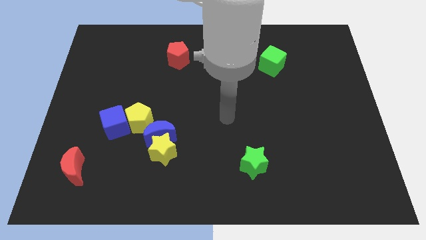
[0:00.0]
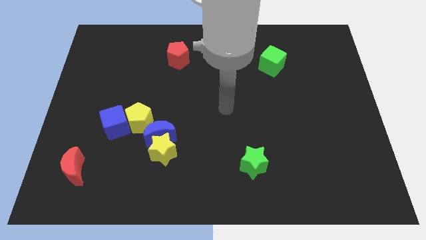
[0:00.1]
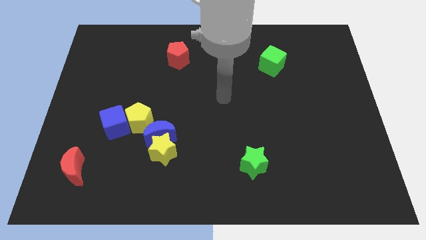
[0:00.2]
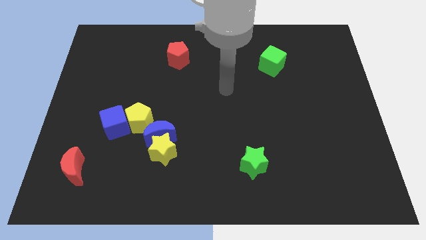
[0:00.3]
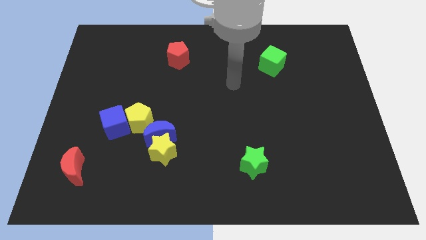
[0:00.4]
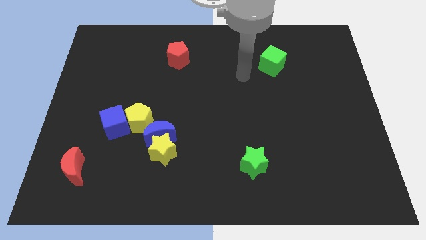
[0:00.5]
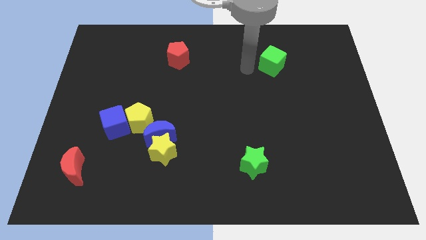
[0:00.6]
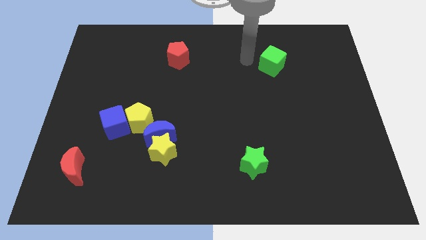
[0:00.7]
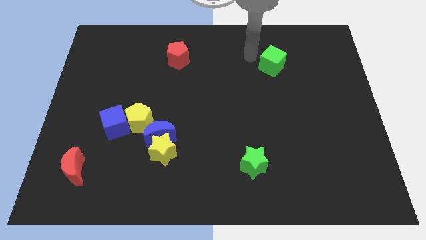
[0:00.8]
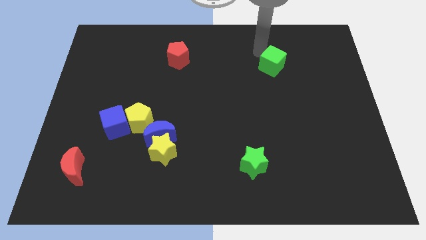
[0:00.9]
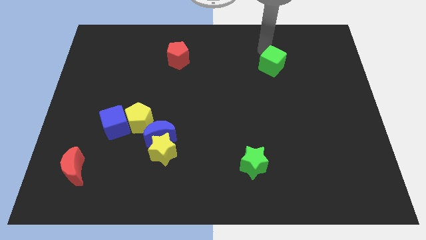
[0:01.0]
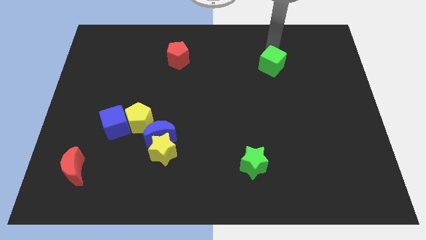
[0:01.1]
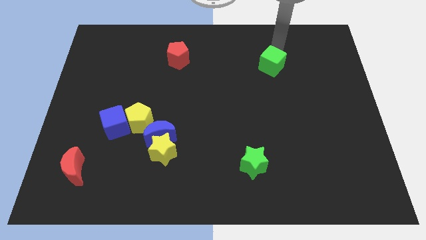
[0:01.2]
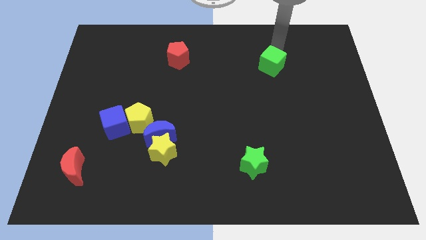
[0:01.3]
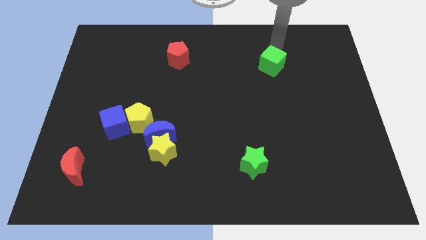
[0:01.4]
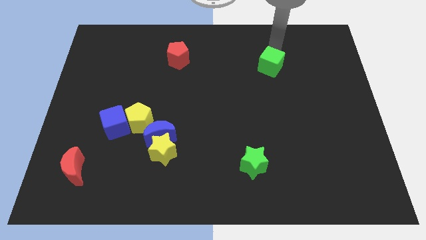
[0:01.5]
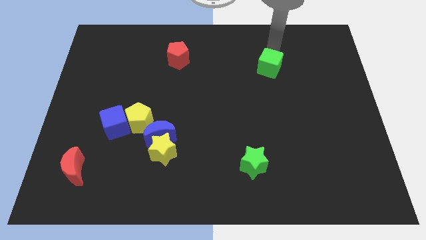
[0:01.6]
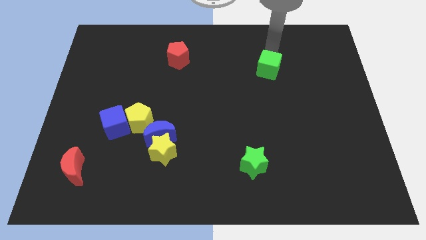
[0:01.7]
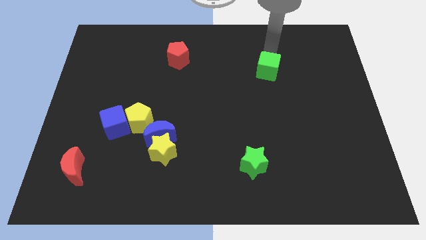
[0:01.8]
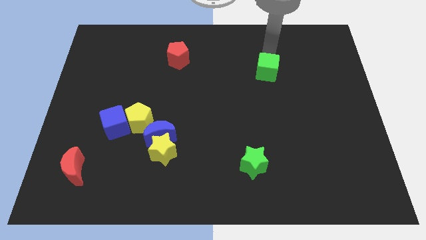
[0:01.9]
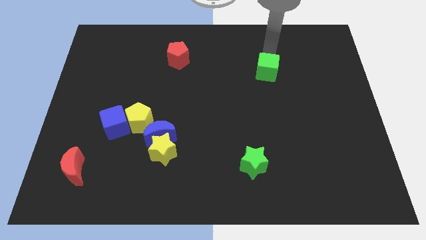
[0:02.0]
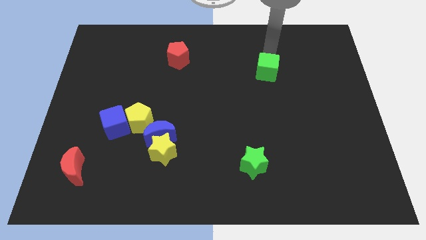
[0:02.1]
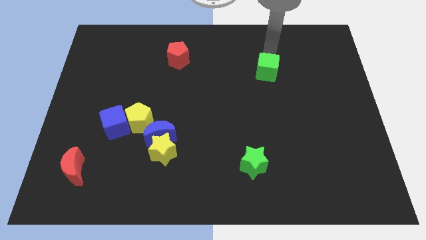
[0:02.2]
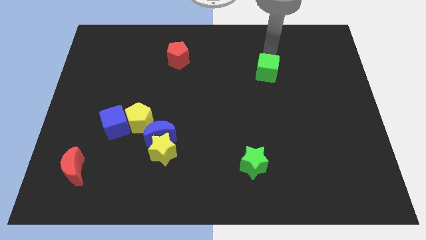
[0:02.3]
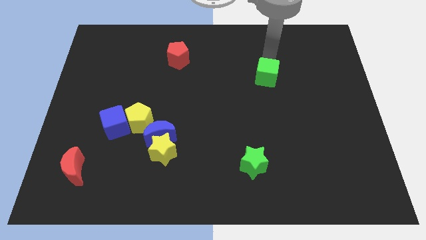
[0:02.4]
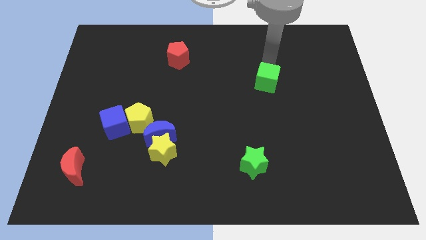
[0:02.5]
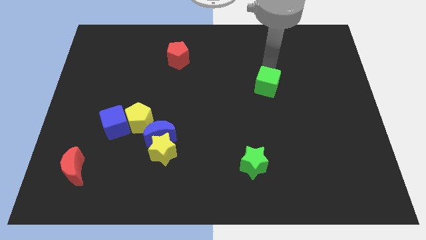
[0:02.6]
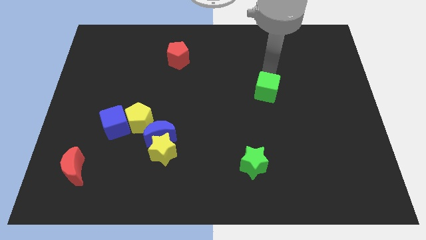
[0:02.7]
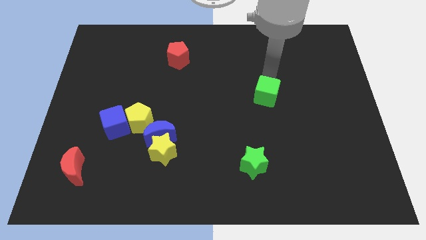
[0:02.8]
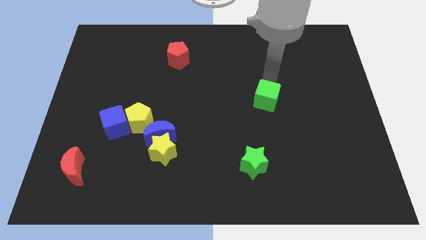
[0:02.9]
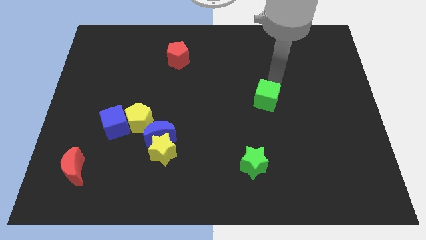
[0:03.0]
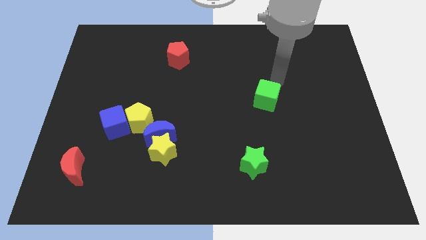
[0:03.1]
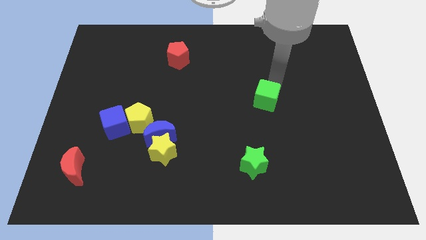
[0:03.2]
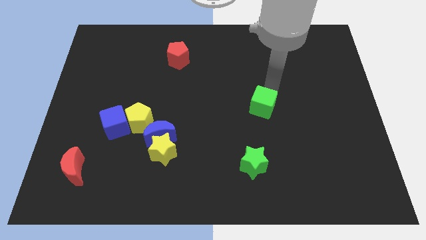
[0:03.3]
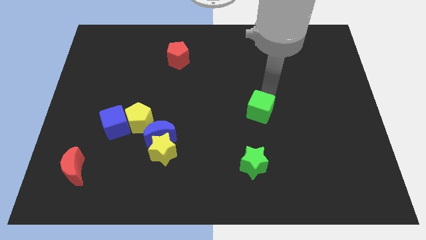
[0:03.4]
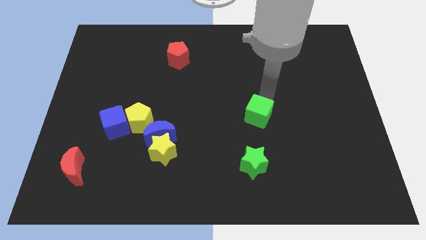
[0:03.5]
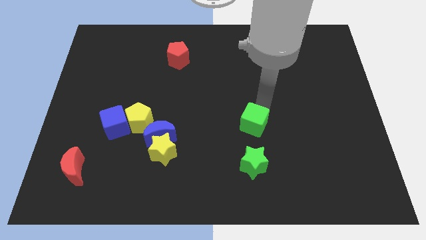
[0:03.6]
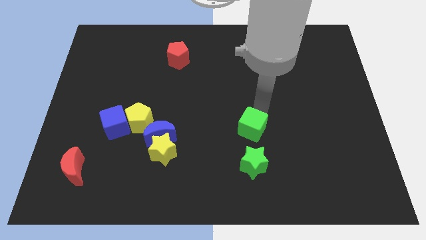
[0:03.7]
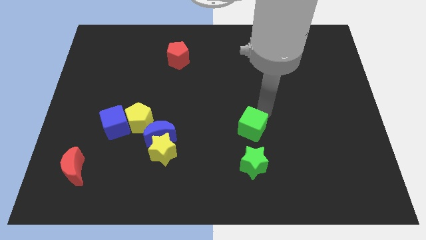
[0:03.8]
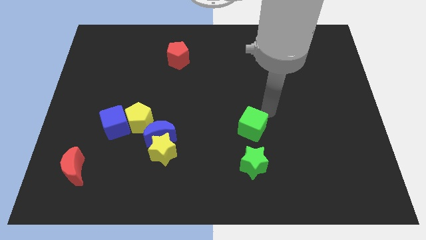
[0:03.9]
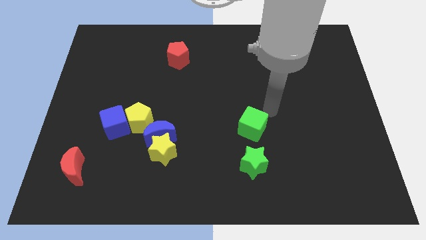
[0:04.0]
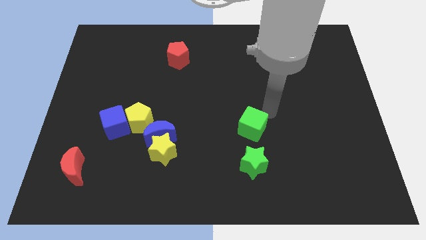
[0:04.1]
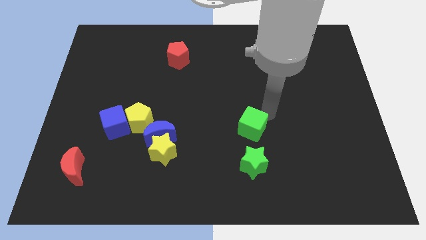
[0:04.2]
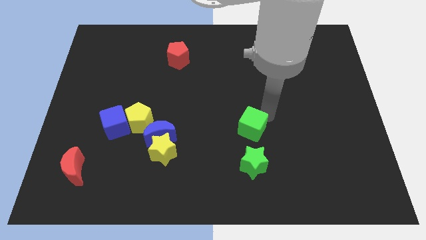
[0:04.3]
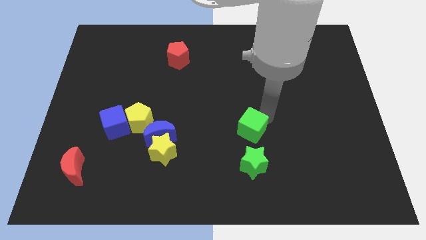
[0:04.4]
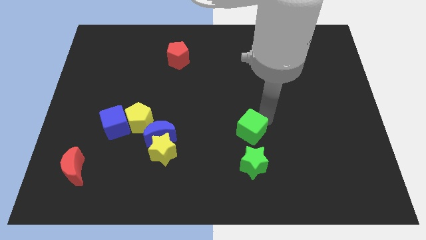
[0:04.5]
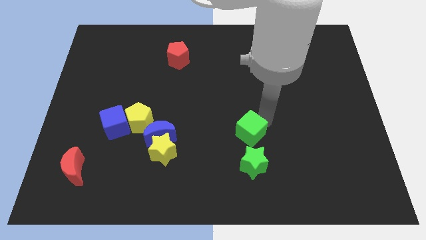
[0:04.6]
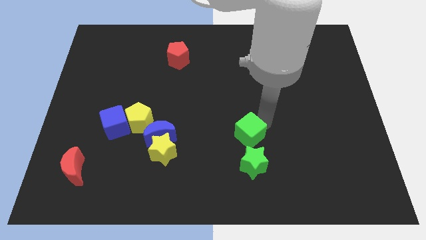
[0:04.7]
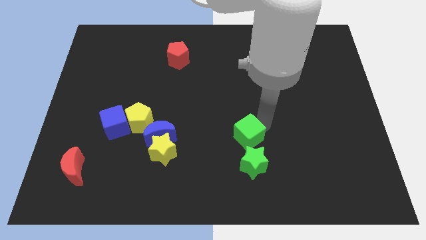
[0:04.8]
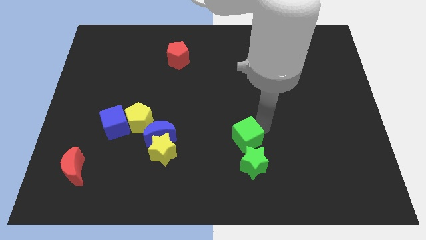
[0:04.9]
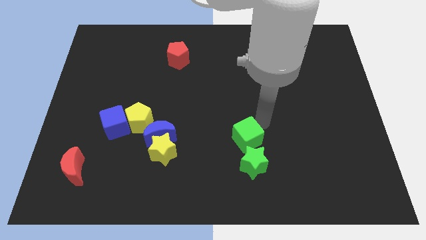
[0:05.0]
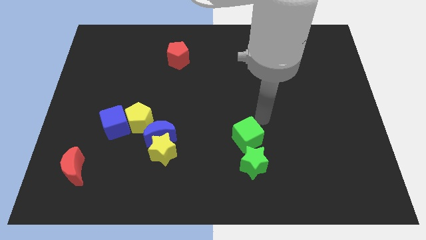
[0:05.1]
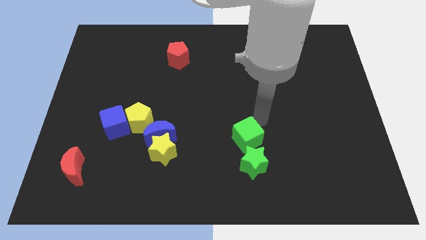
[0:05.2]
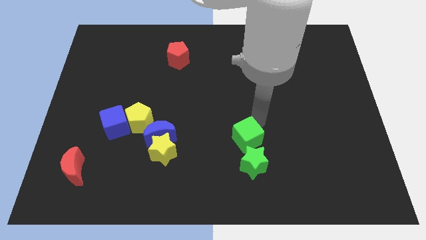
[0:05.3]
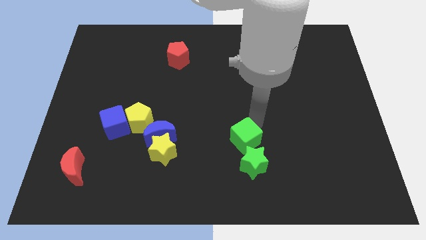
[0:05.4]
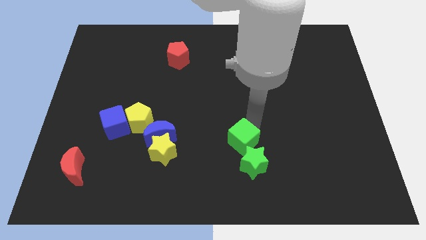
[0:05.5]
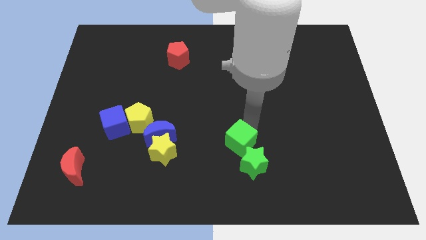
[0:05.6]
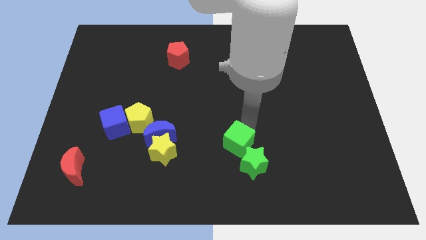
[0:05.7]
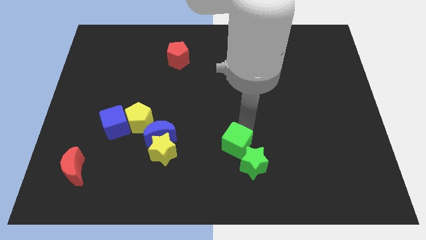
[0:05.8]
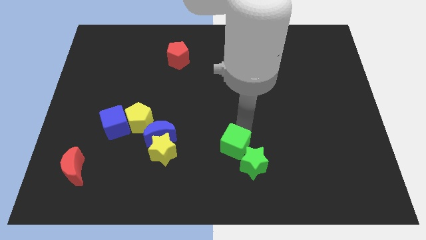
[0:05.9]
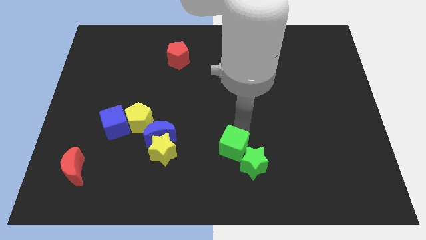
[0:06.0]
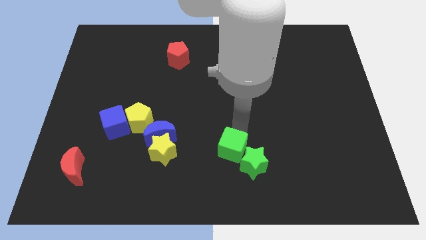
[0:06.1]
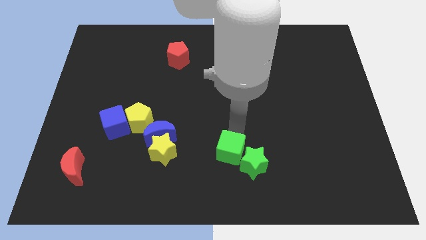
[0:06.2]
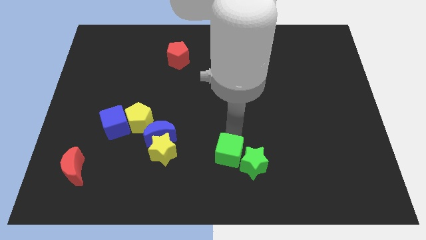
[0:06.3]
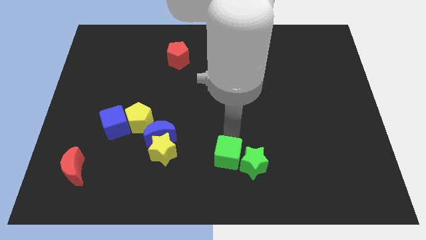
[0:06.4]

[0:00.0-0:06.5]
put the green cube to the bottom

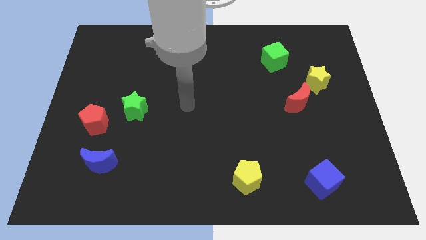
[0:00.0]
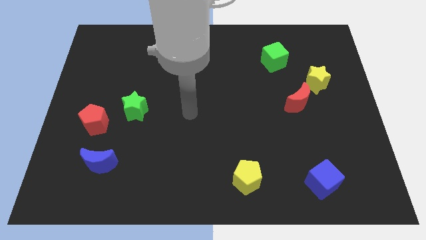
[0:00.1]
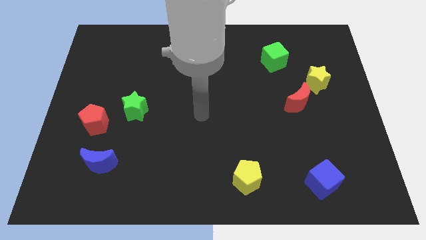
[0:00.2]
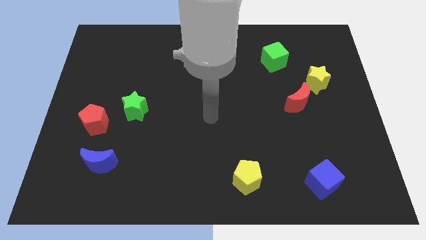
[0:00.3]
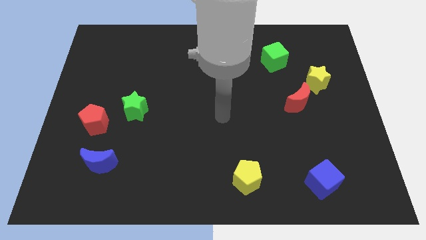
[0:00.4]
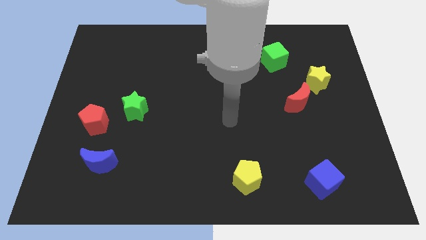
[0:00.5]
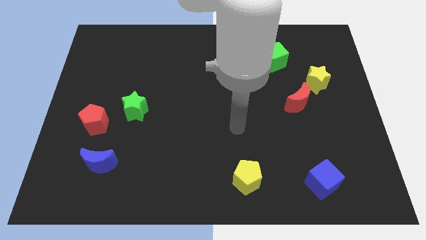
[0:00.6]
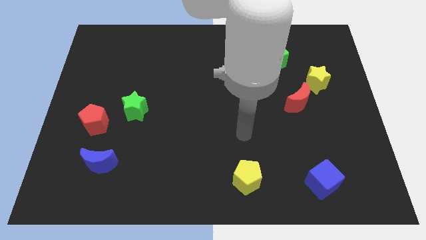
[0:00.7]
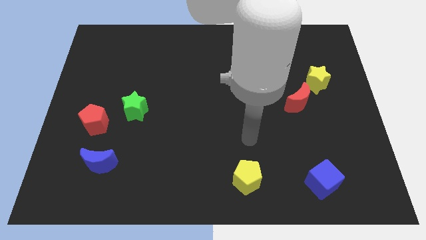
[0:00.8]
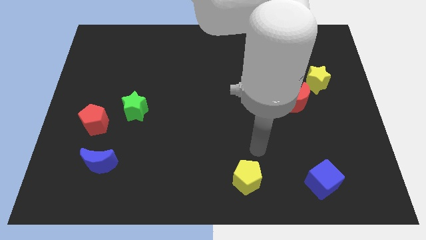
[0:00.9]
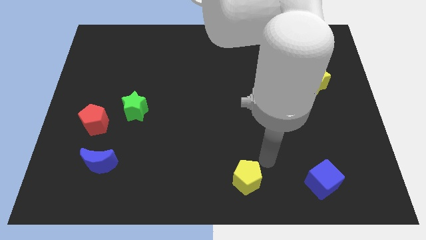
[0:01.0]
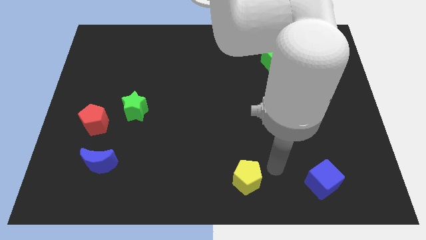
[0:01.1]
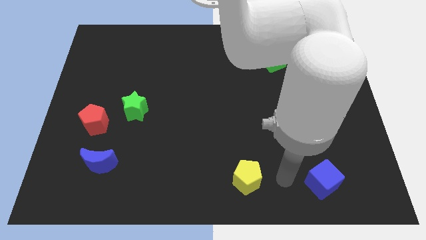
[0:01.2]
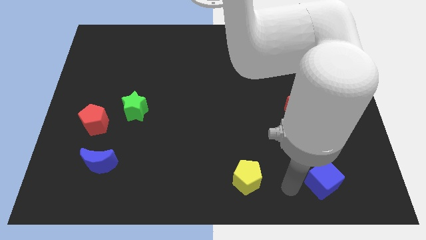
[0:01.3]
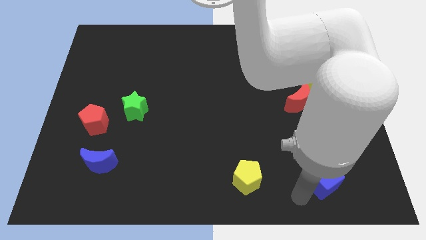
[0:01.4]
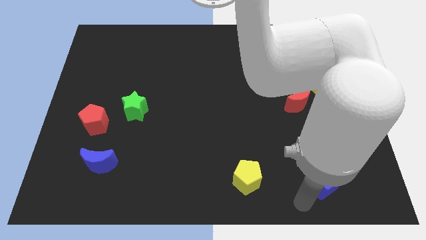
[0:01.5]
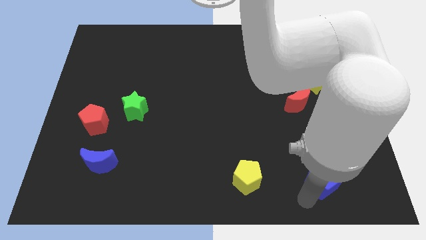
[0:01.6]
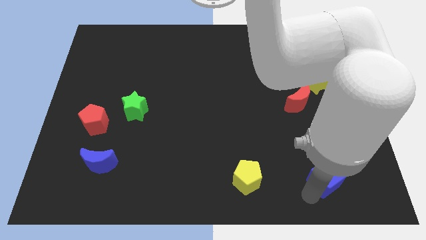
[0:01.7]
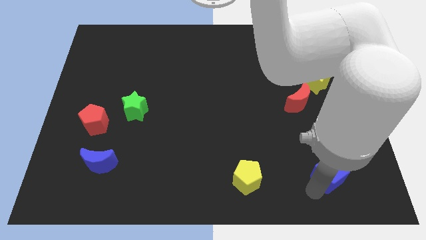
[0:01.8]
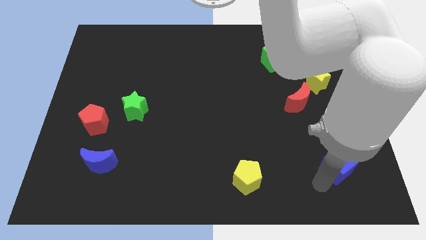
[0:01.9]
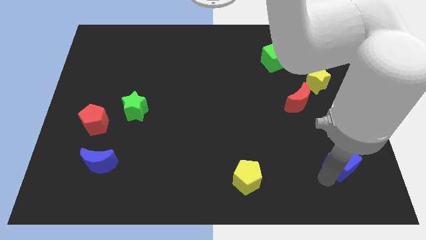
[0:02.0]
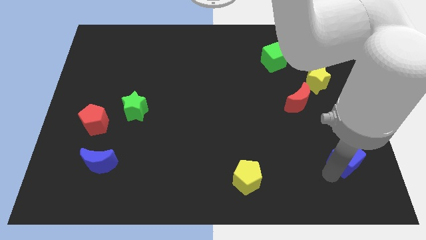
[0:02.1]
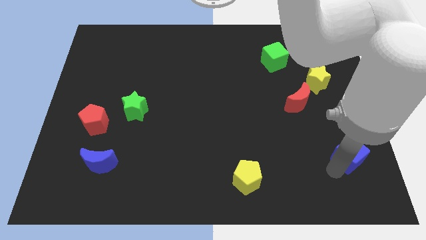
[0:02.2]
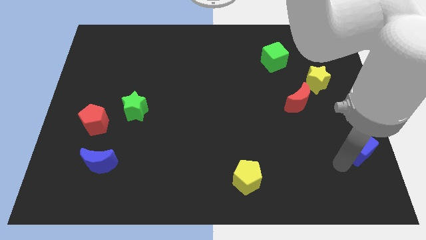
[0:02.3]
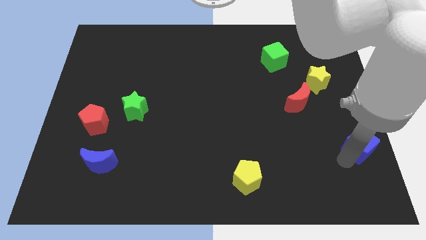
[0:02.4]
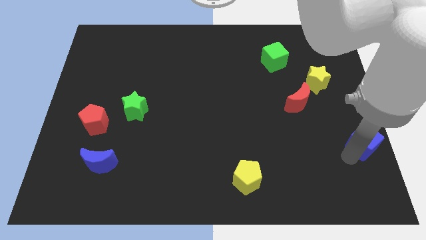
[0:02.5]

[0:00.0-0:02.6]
move the blue cube to the right side of the board
